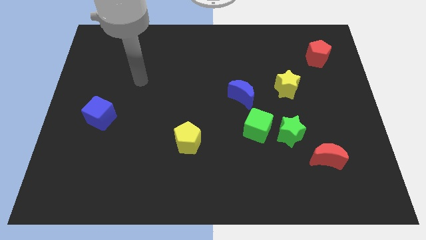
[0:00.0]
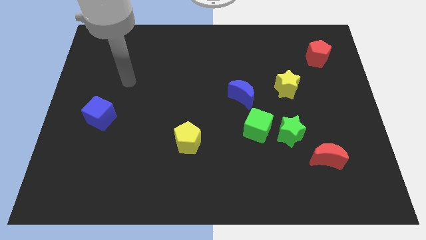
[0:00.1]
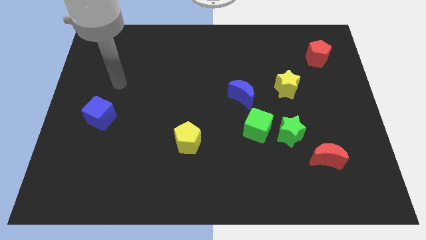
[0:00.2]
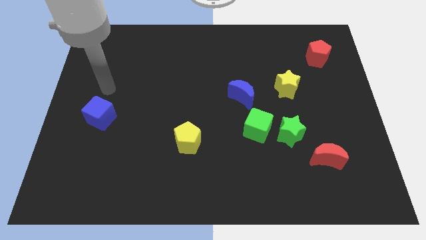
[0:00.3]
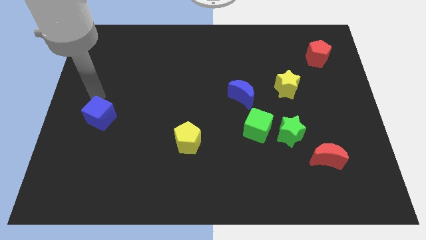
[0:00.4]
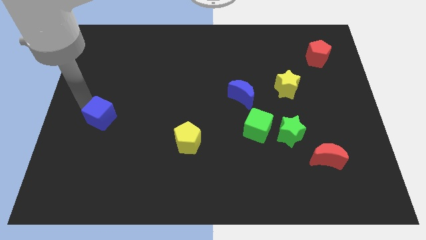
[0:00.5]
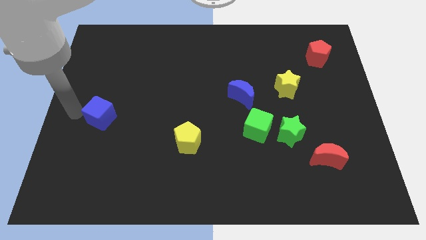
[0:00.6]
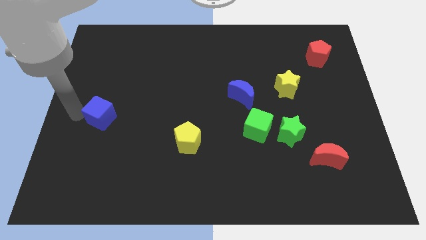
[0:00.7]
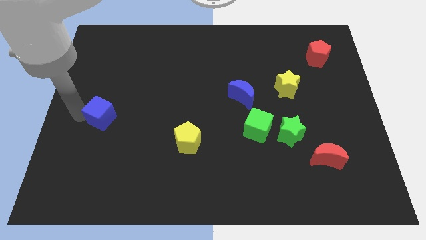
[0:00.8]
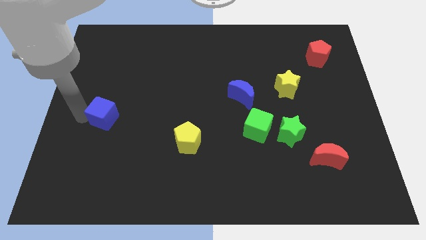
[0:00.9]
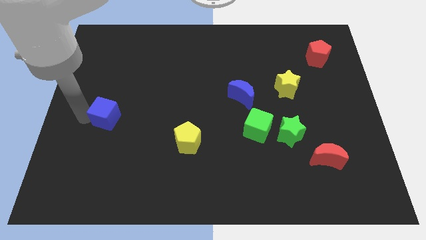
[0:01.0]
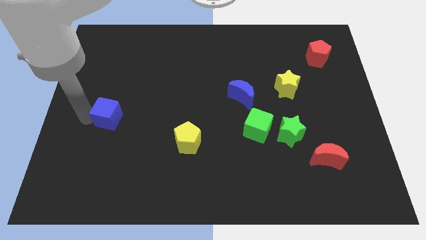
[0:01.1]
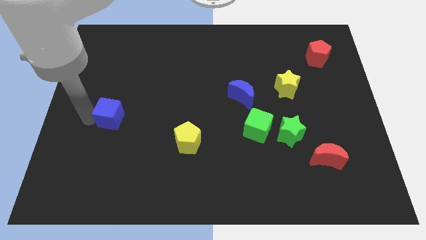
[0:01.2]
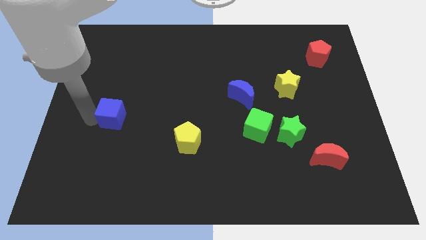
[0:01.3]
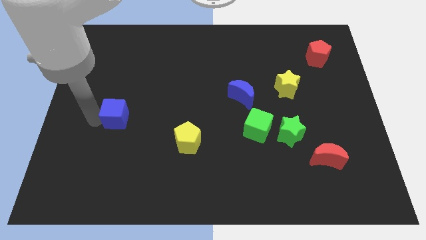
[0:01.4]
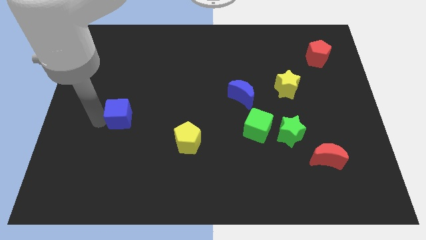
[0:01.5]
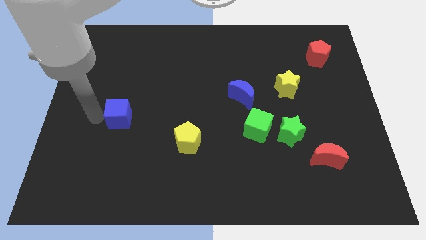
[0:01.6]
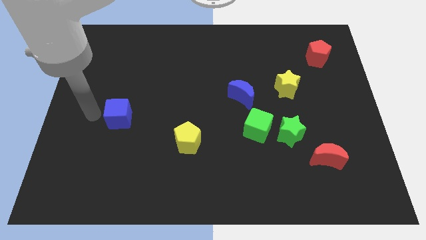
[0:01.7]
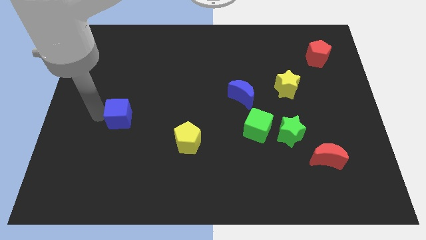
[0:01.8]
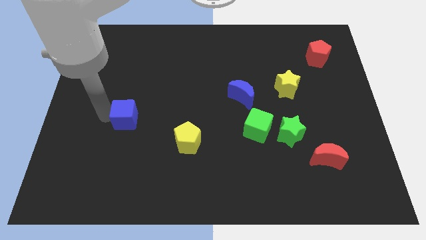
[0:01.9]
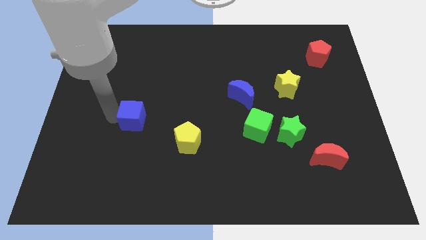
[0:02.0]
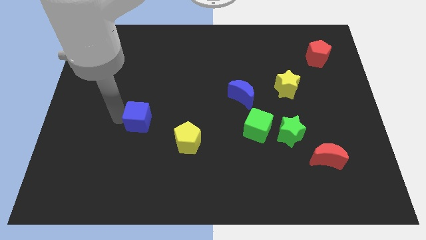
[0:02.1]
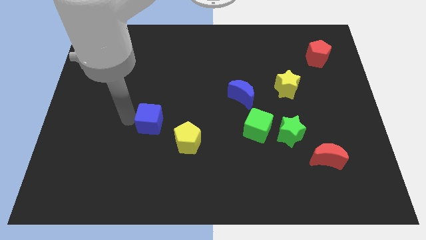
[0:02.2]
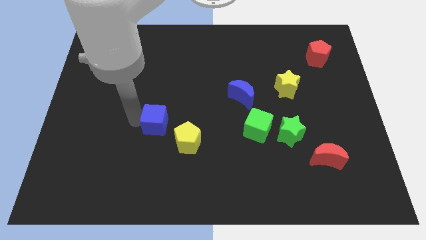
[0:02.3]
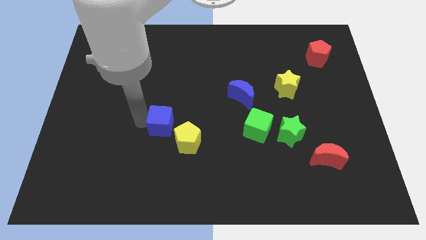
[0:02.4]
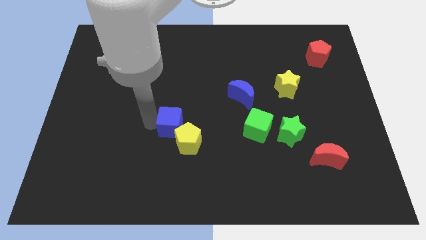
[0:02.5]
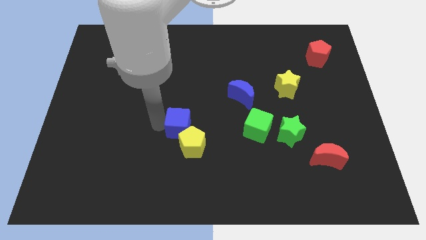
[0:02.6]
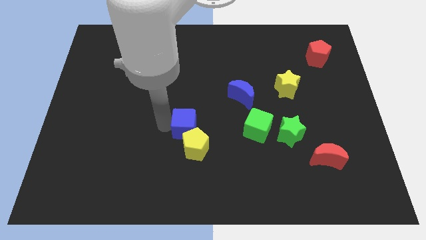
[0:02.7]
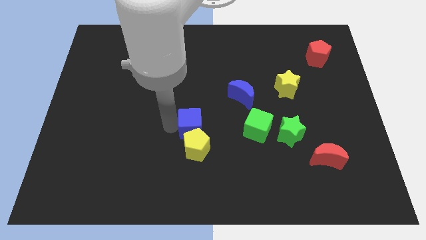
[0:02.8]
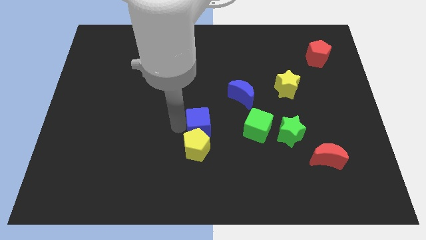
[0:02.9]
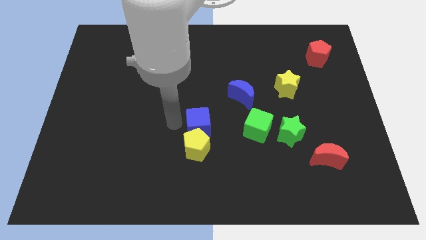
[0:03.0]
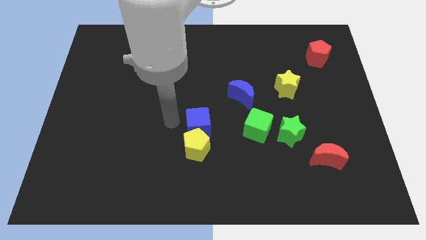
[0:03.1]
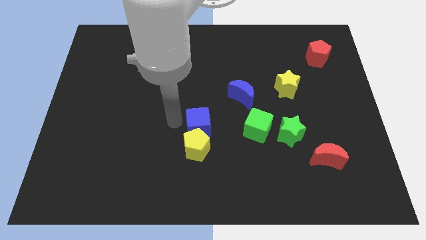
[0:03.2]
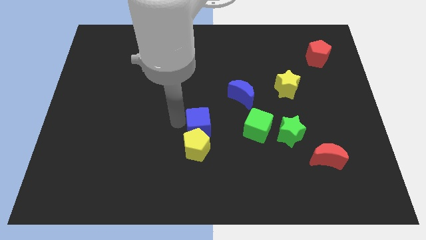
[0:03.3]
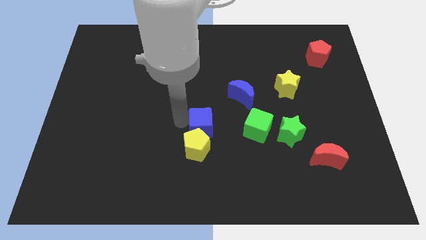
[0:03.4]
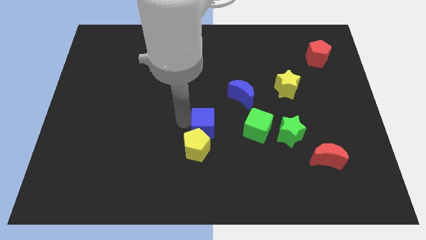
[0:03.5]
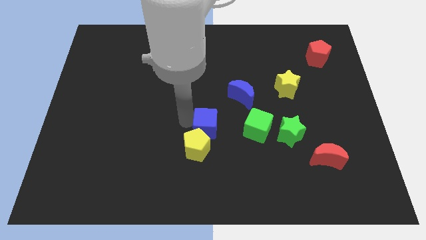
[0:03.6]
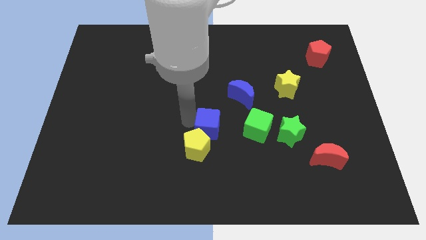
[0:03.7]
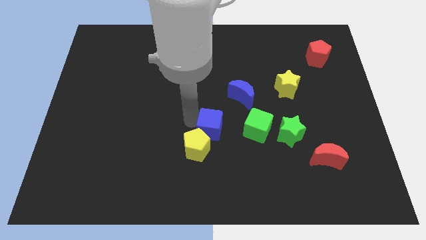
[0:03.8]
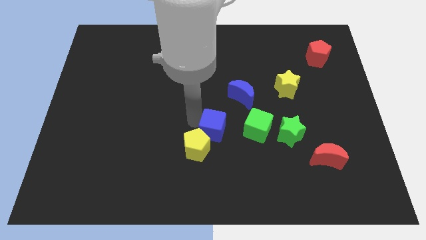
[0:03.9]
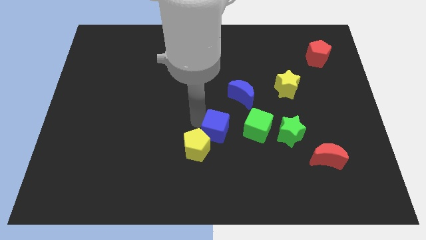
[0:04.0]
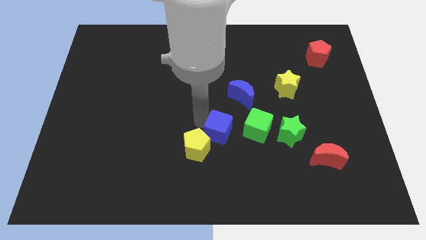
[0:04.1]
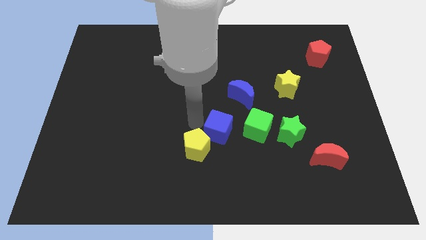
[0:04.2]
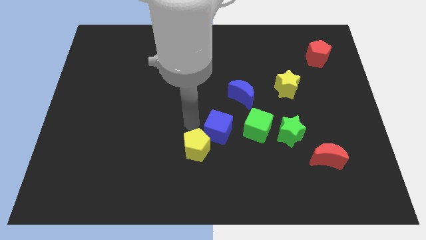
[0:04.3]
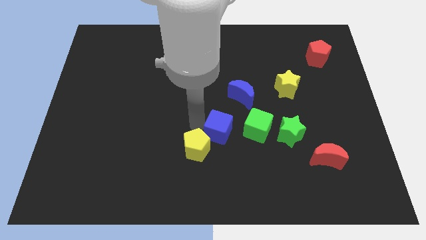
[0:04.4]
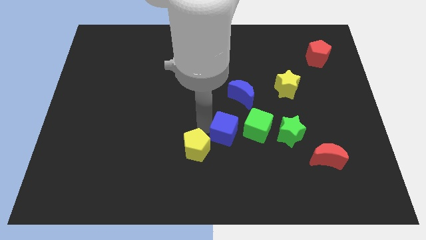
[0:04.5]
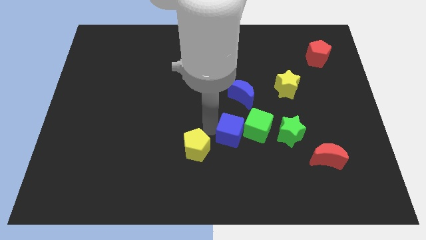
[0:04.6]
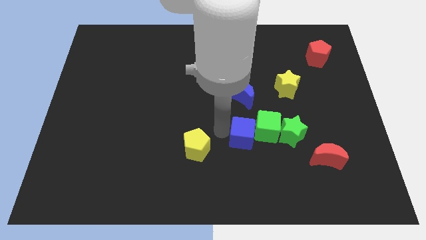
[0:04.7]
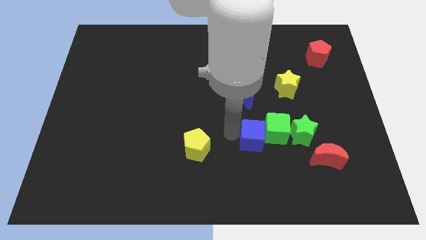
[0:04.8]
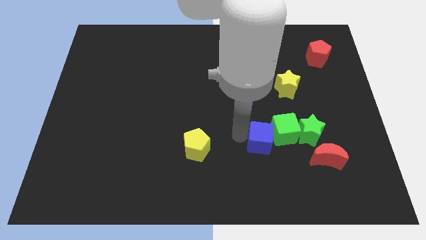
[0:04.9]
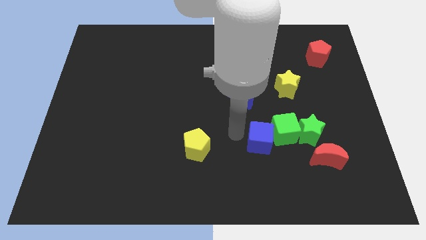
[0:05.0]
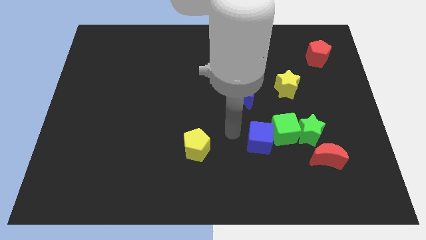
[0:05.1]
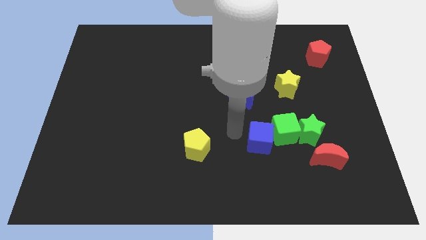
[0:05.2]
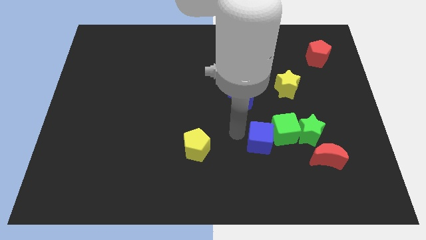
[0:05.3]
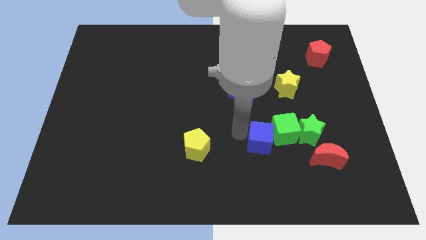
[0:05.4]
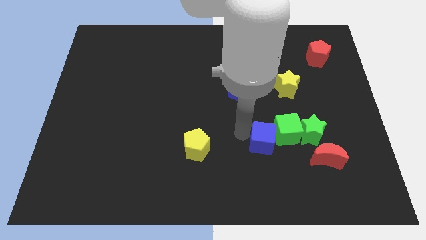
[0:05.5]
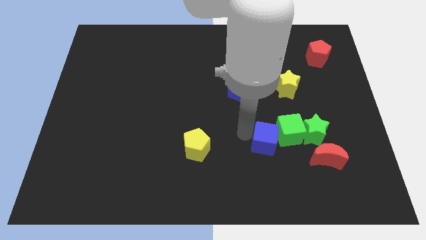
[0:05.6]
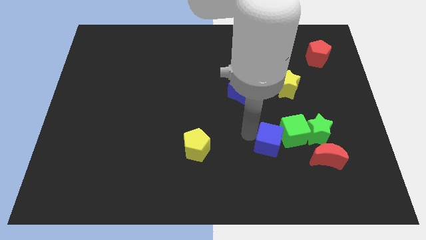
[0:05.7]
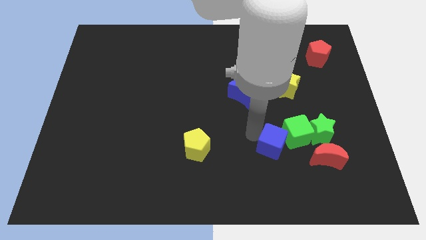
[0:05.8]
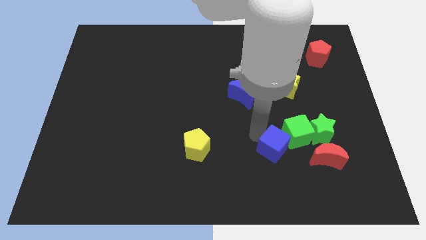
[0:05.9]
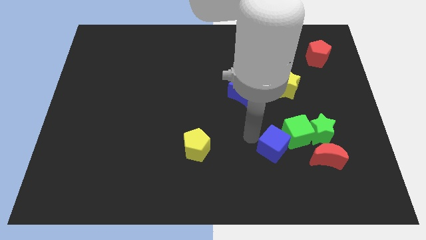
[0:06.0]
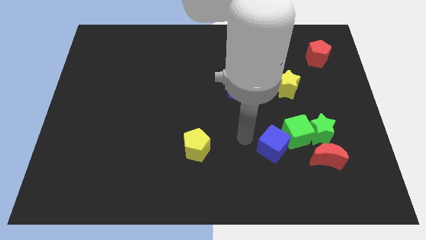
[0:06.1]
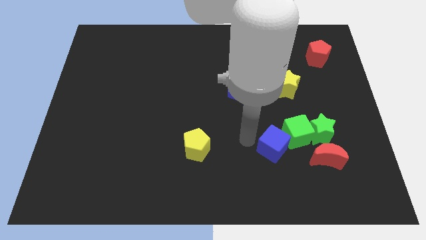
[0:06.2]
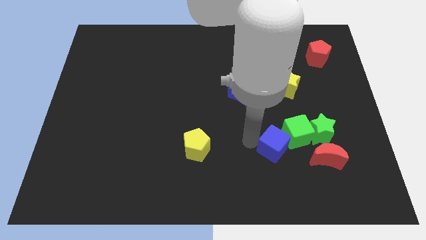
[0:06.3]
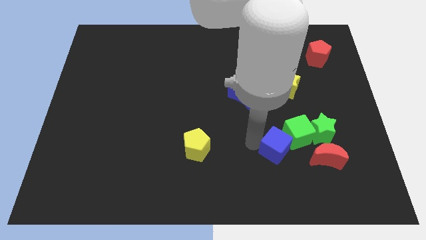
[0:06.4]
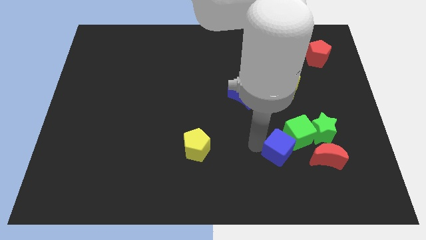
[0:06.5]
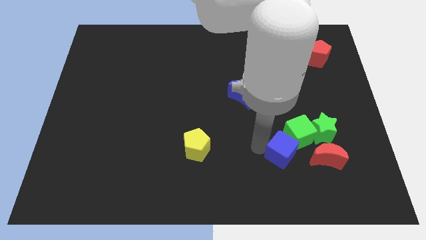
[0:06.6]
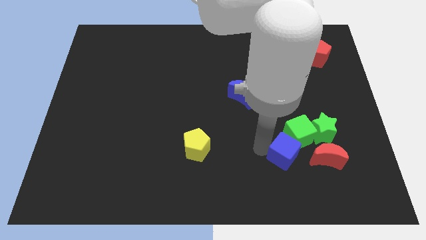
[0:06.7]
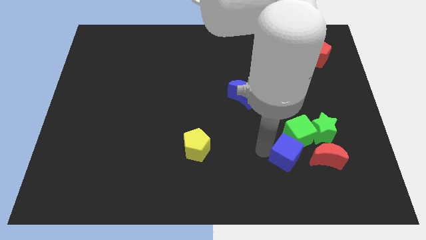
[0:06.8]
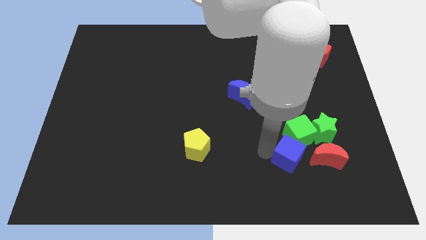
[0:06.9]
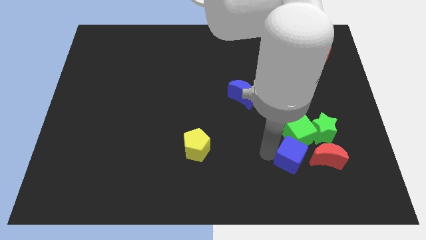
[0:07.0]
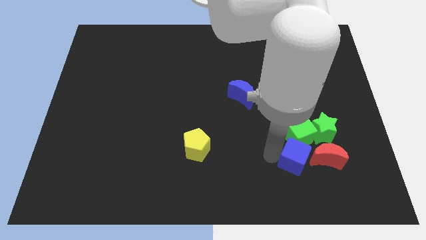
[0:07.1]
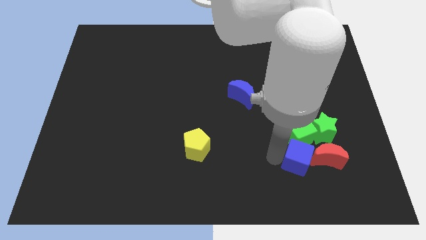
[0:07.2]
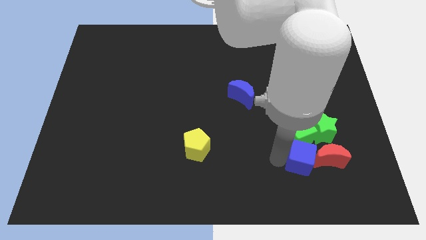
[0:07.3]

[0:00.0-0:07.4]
put the blue cube next to the red moon

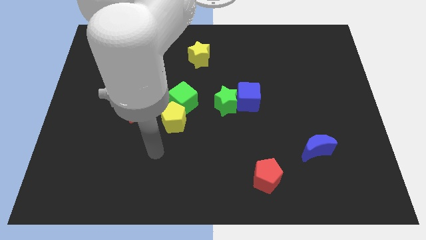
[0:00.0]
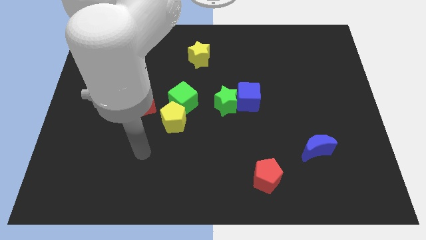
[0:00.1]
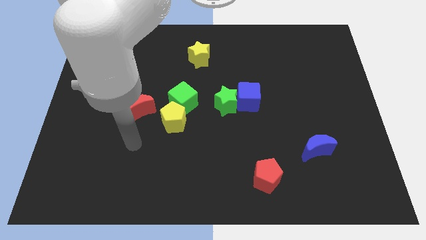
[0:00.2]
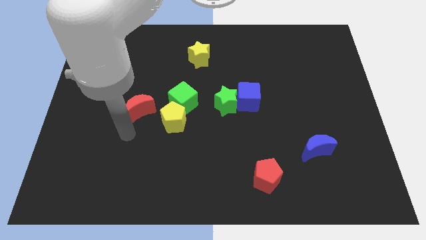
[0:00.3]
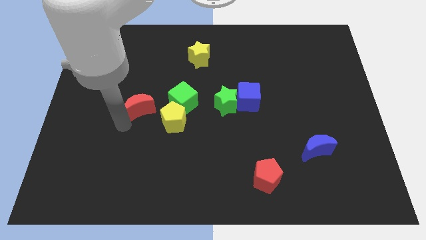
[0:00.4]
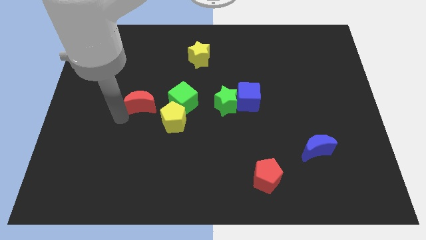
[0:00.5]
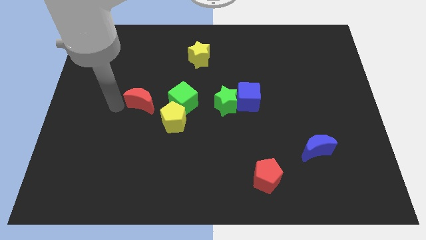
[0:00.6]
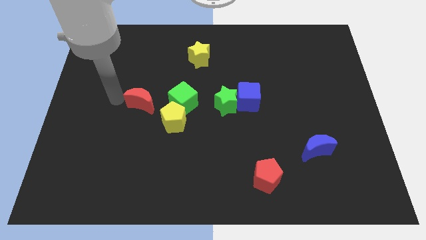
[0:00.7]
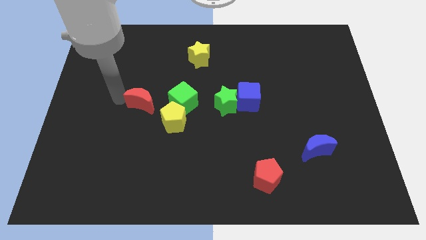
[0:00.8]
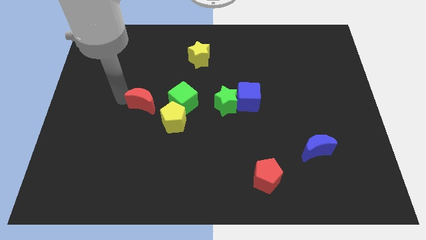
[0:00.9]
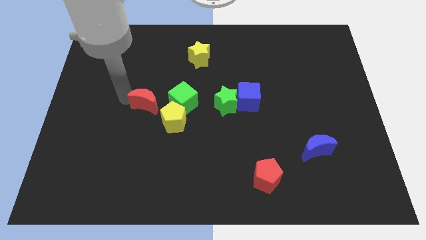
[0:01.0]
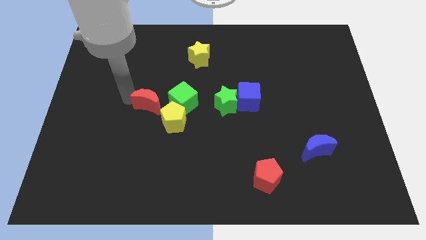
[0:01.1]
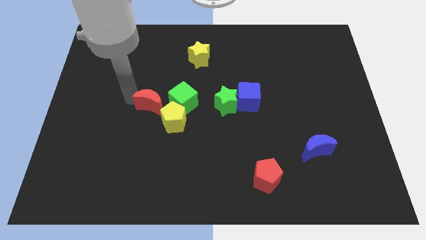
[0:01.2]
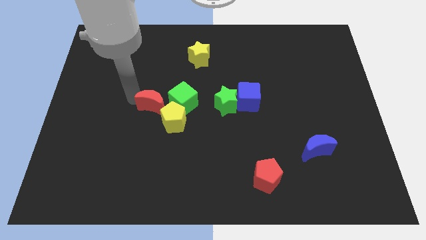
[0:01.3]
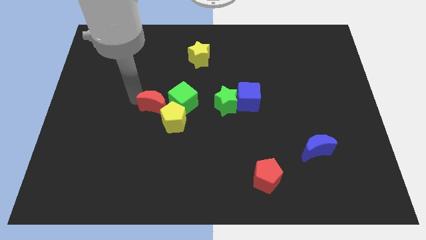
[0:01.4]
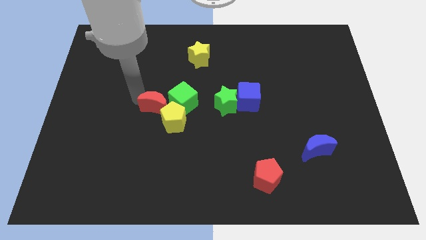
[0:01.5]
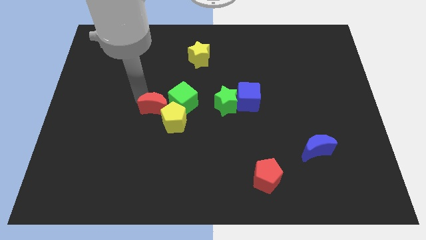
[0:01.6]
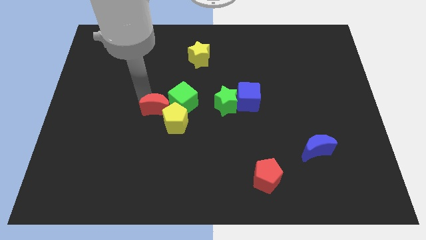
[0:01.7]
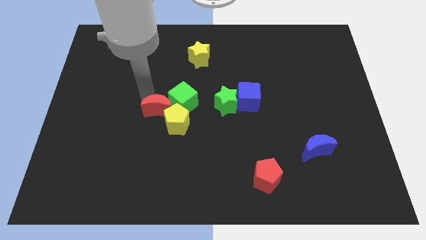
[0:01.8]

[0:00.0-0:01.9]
put the red moon close to the green cube
